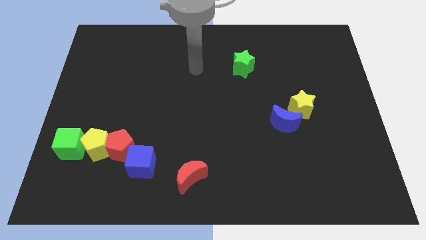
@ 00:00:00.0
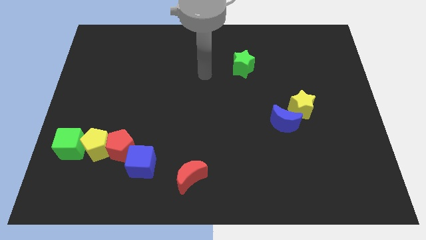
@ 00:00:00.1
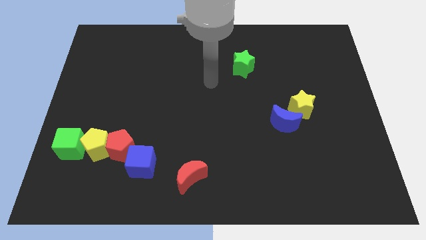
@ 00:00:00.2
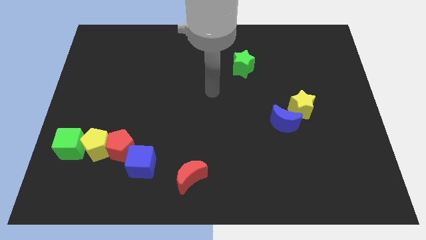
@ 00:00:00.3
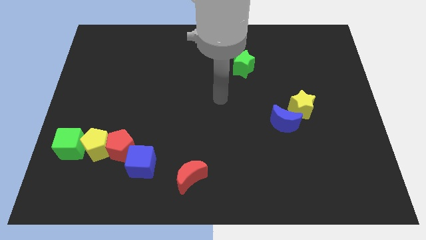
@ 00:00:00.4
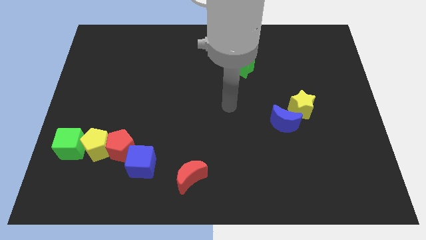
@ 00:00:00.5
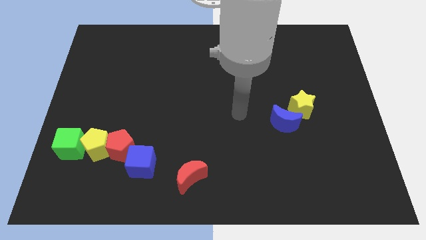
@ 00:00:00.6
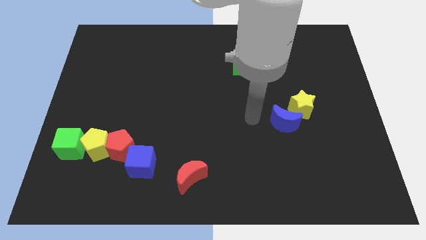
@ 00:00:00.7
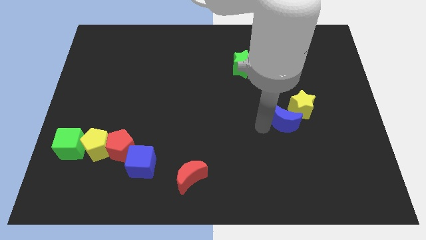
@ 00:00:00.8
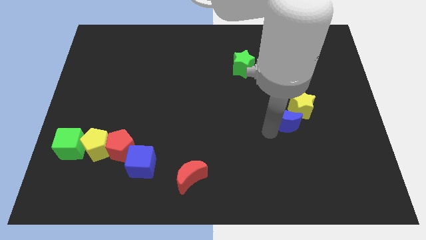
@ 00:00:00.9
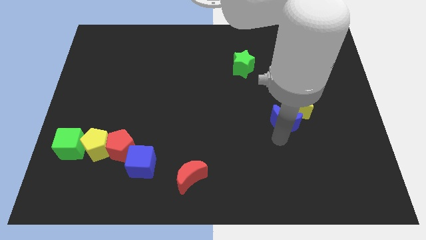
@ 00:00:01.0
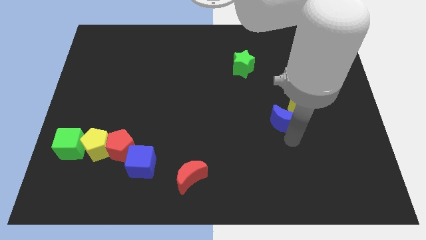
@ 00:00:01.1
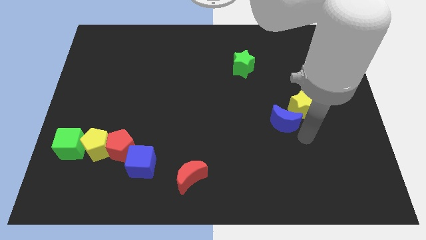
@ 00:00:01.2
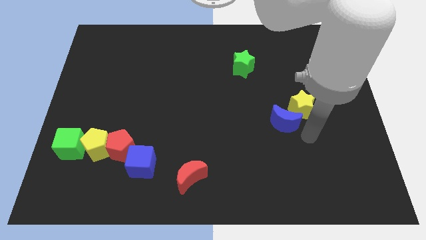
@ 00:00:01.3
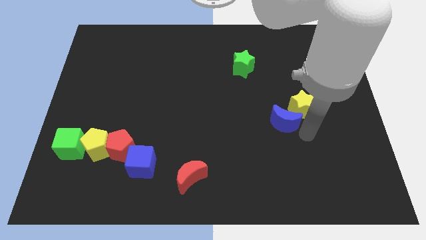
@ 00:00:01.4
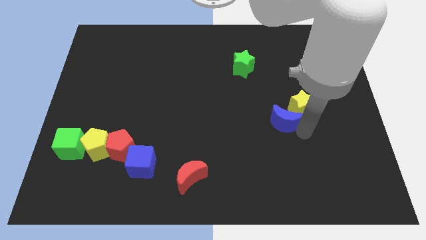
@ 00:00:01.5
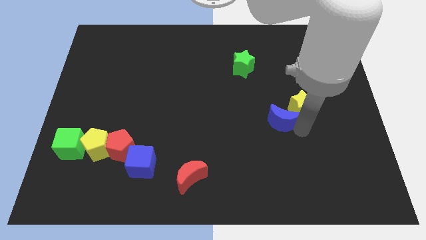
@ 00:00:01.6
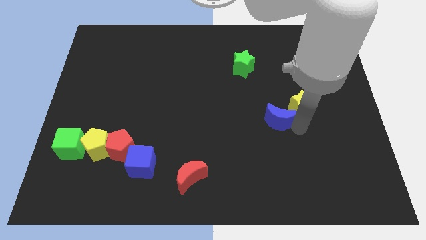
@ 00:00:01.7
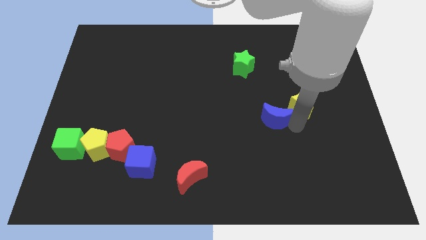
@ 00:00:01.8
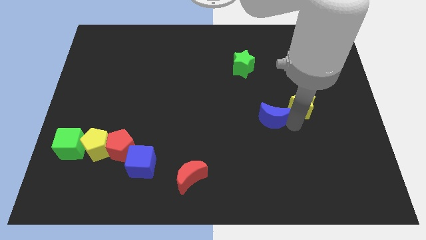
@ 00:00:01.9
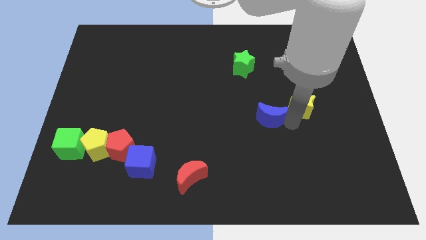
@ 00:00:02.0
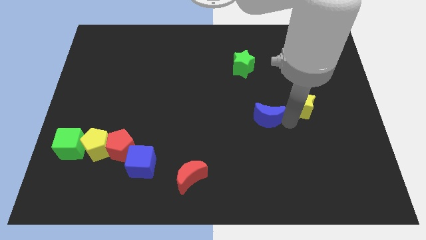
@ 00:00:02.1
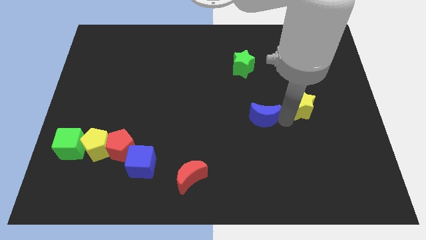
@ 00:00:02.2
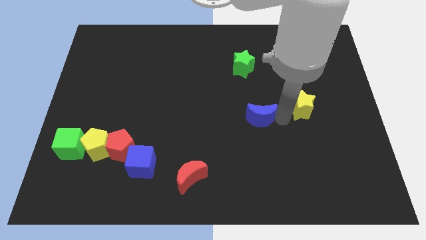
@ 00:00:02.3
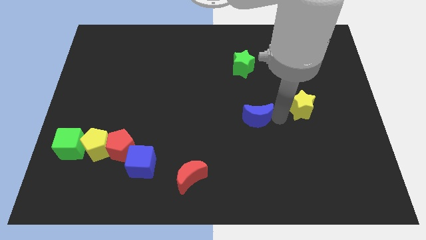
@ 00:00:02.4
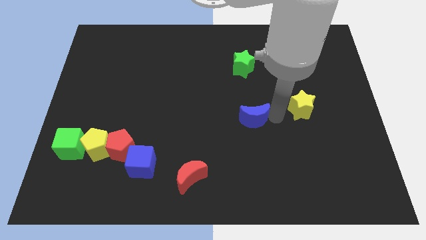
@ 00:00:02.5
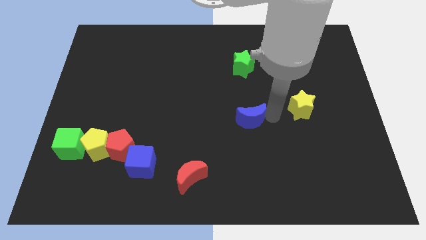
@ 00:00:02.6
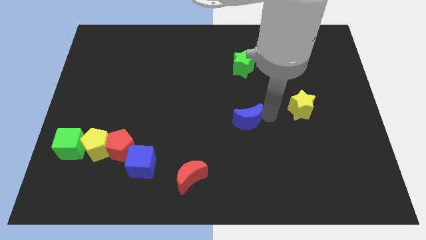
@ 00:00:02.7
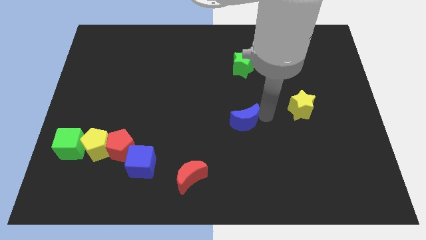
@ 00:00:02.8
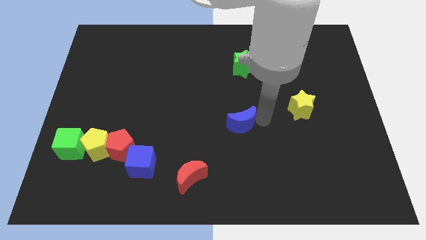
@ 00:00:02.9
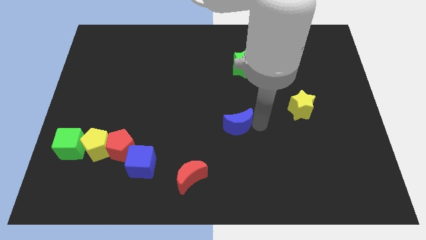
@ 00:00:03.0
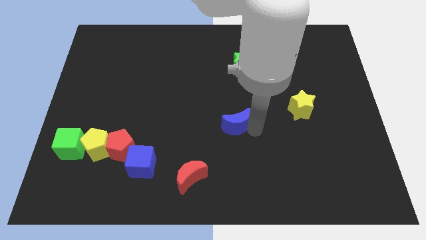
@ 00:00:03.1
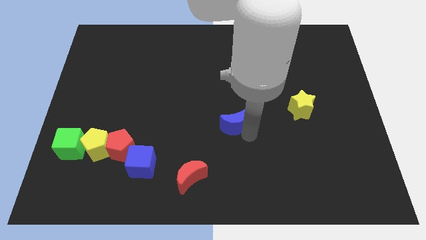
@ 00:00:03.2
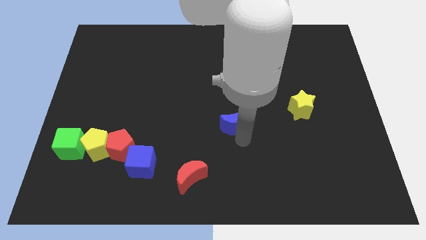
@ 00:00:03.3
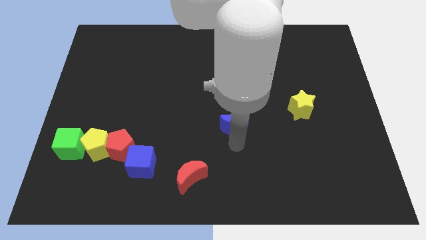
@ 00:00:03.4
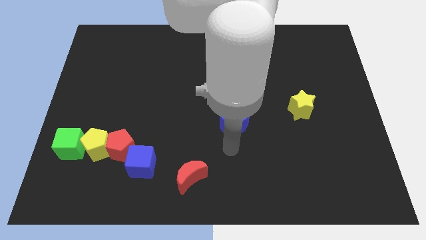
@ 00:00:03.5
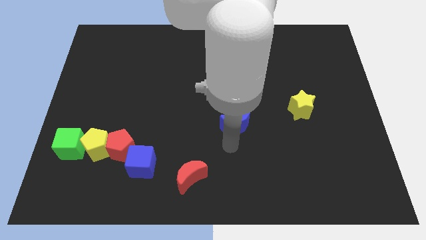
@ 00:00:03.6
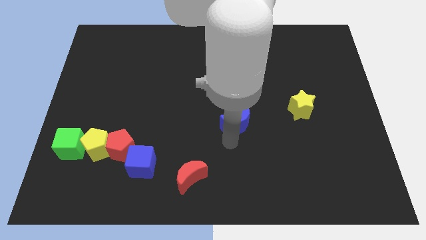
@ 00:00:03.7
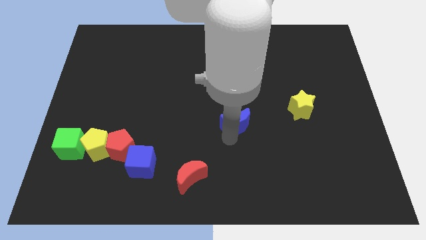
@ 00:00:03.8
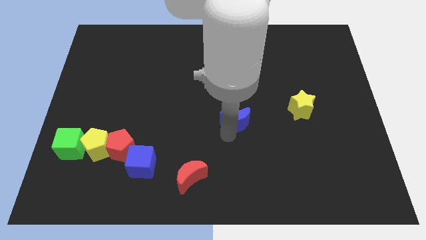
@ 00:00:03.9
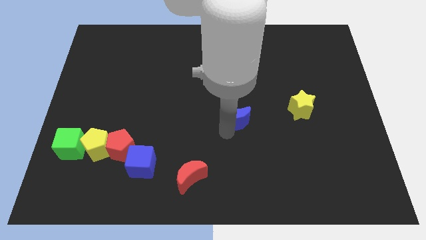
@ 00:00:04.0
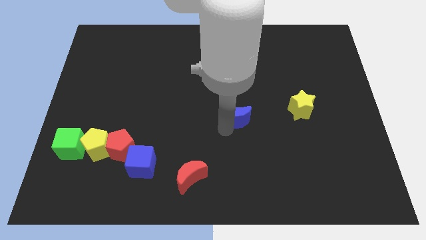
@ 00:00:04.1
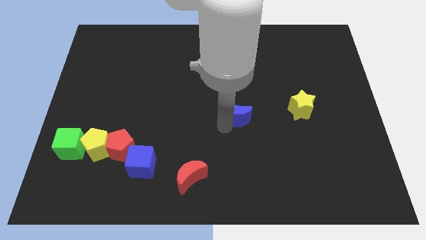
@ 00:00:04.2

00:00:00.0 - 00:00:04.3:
slightly move the blue moon upwards and left diagonally

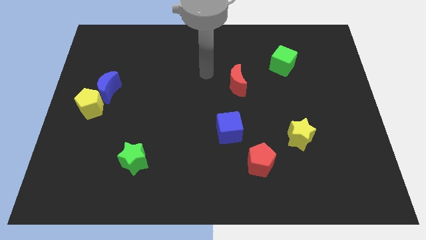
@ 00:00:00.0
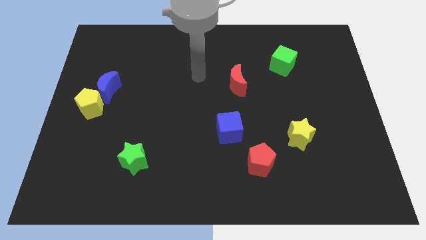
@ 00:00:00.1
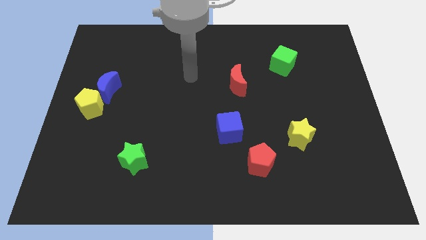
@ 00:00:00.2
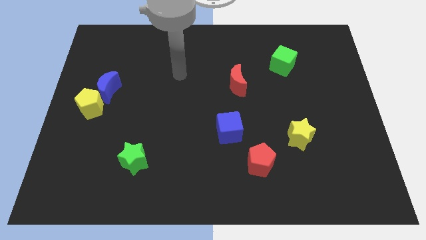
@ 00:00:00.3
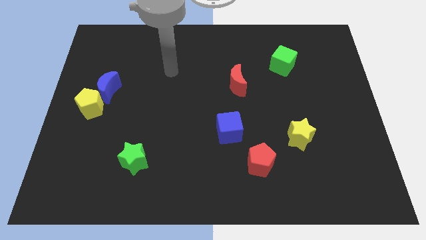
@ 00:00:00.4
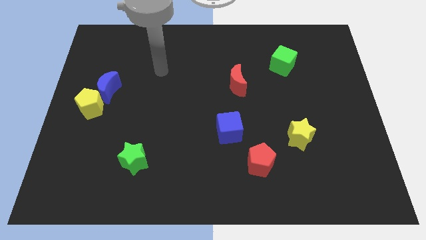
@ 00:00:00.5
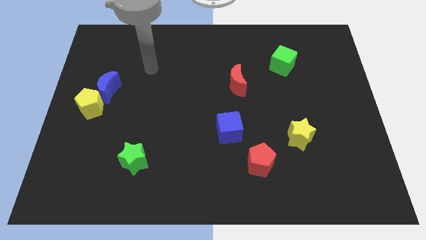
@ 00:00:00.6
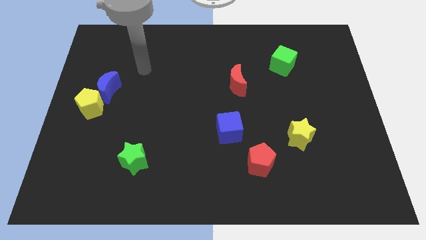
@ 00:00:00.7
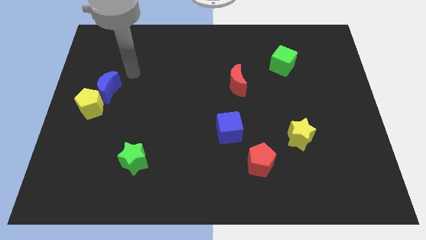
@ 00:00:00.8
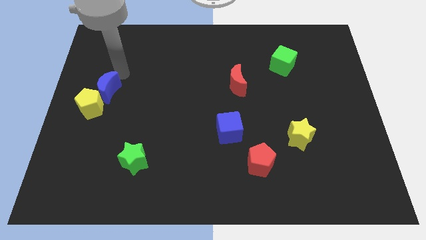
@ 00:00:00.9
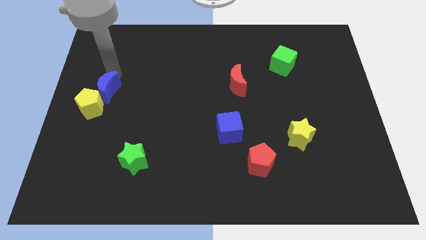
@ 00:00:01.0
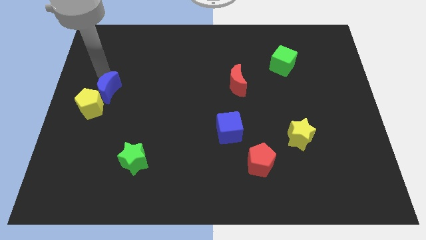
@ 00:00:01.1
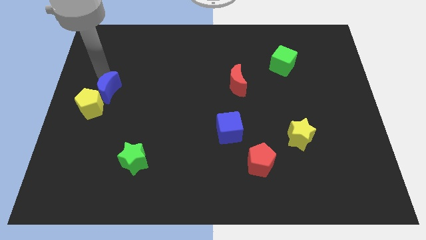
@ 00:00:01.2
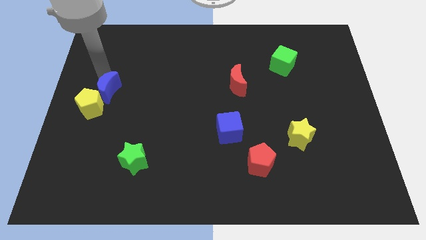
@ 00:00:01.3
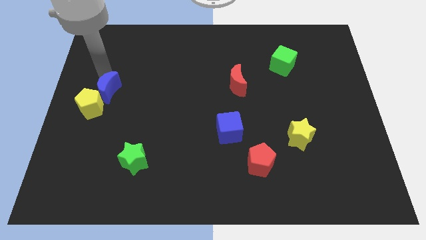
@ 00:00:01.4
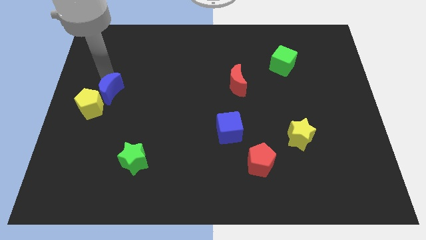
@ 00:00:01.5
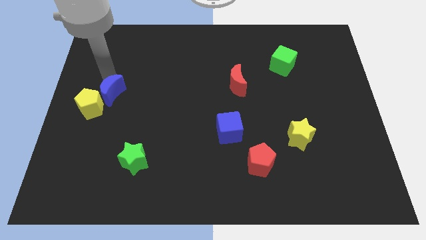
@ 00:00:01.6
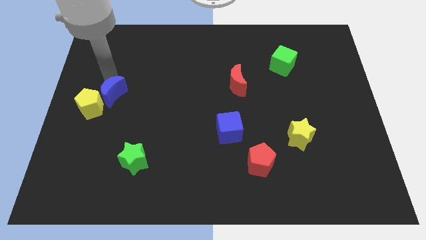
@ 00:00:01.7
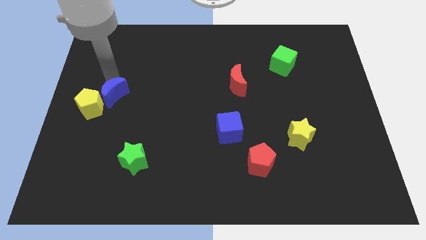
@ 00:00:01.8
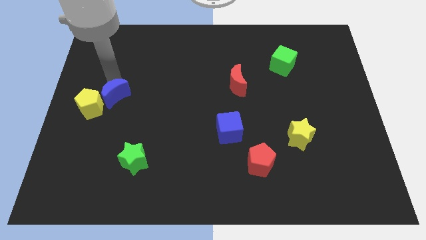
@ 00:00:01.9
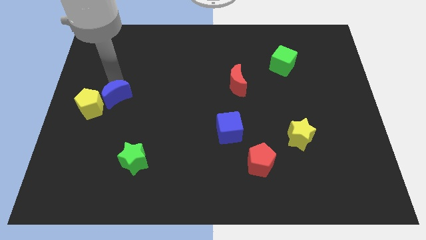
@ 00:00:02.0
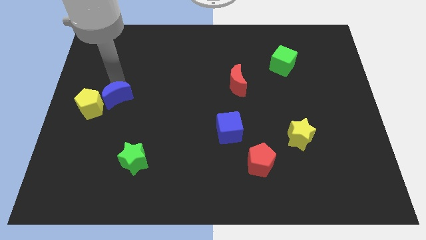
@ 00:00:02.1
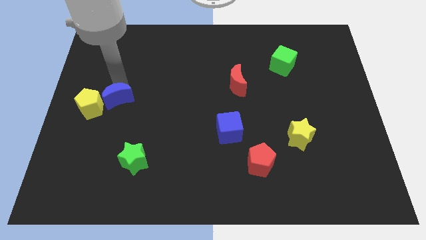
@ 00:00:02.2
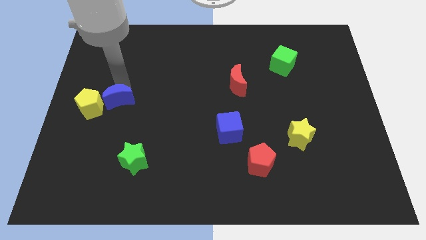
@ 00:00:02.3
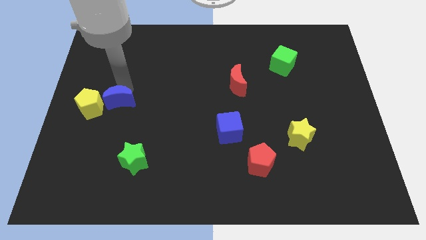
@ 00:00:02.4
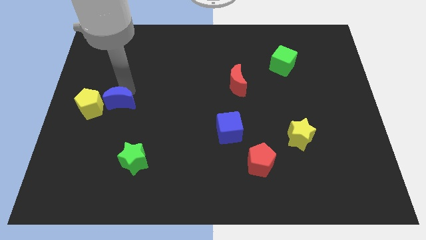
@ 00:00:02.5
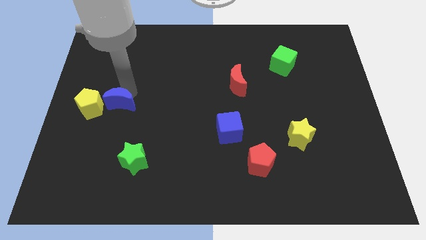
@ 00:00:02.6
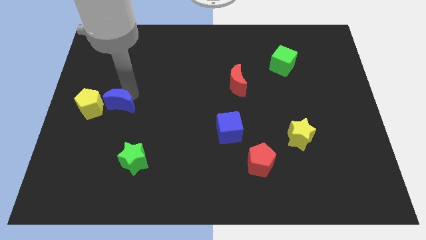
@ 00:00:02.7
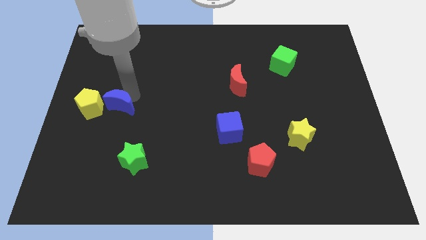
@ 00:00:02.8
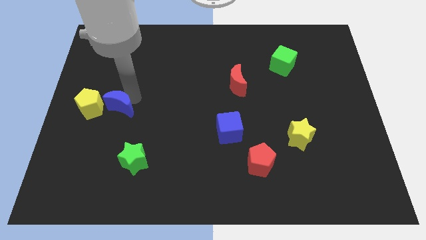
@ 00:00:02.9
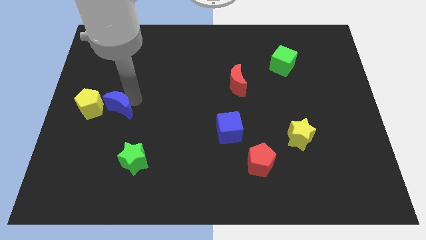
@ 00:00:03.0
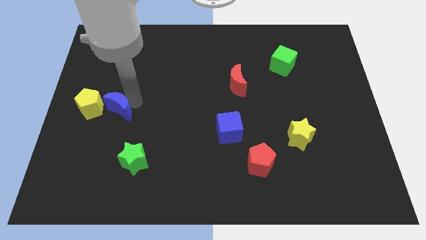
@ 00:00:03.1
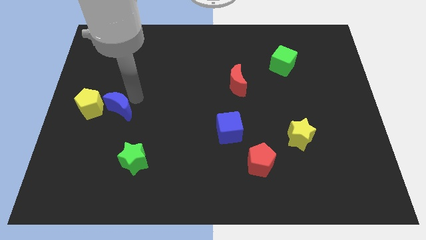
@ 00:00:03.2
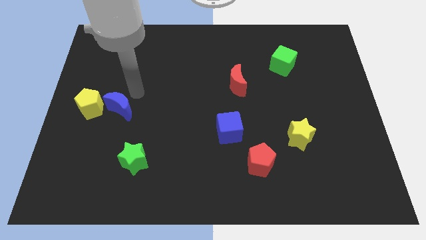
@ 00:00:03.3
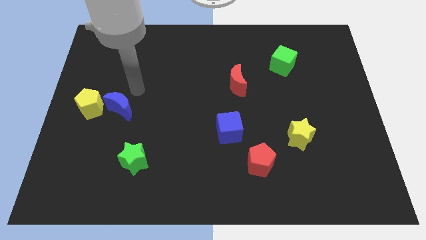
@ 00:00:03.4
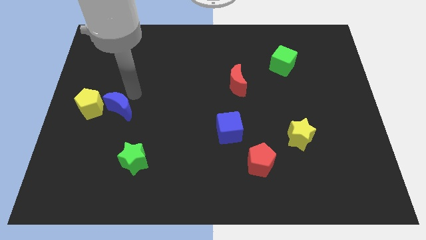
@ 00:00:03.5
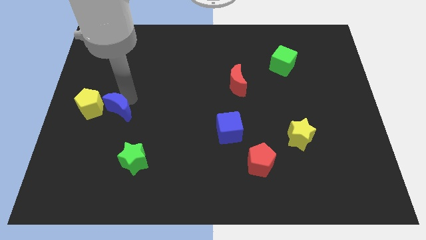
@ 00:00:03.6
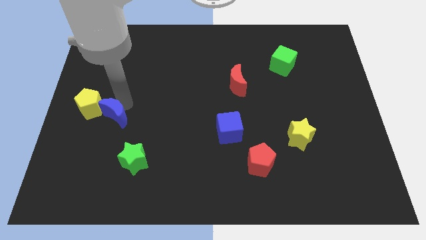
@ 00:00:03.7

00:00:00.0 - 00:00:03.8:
push the blue moon down a little
